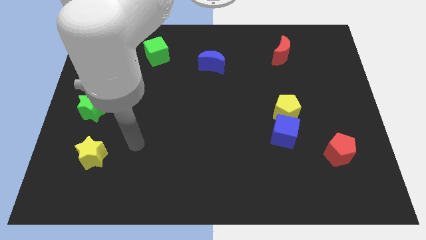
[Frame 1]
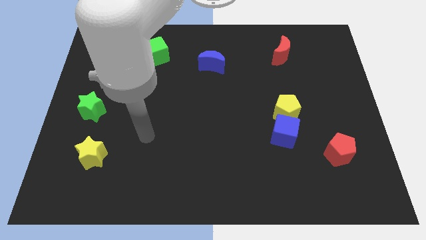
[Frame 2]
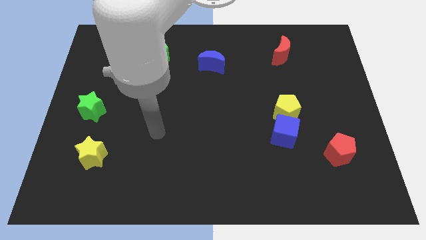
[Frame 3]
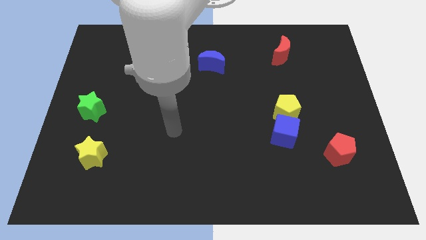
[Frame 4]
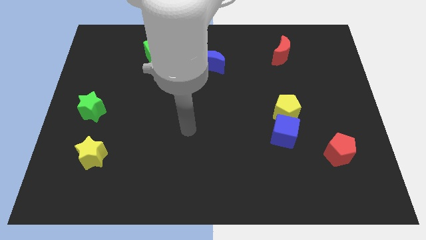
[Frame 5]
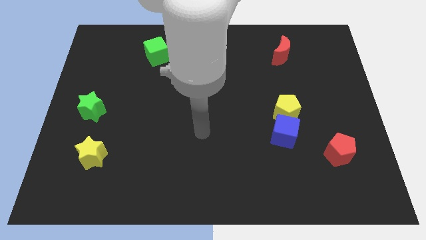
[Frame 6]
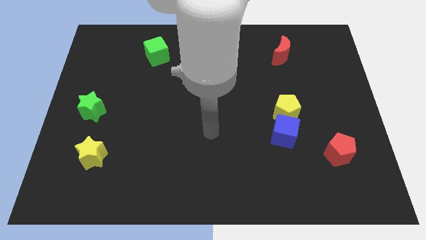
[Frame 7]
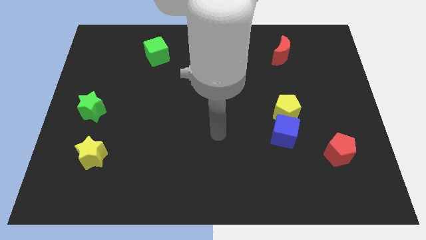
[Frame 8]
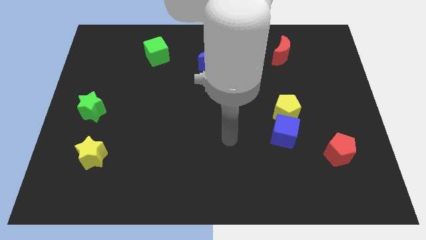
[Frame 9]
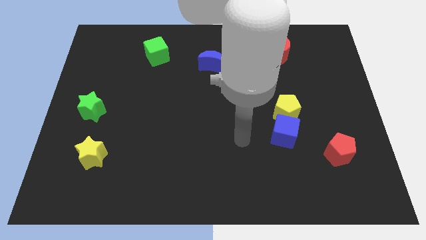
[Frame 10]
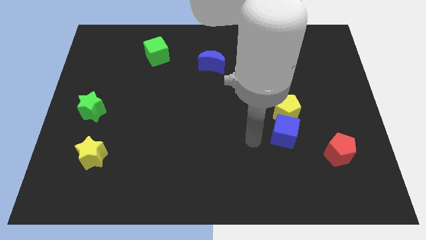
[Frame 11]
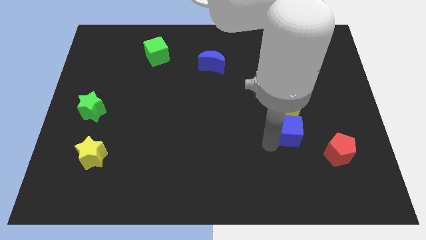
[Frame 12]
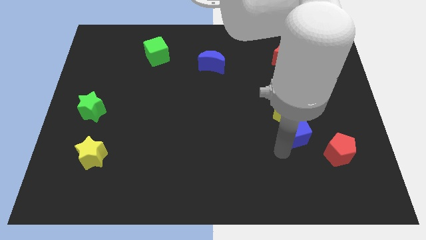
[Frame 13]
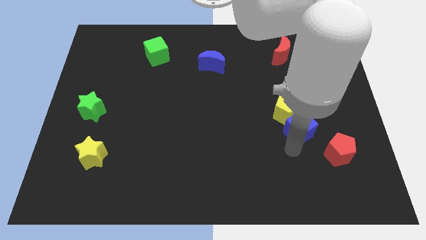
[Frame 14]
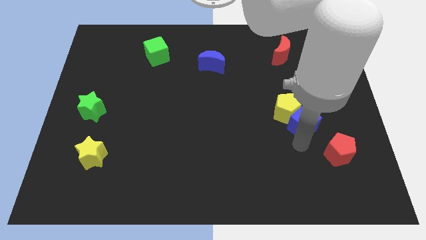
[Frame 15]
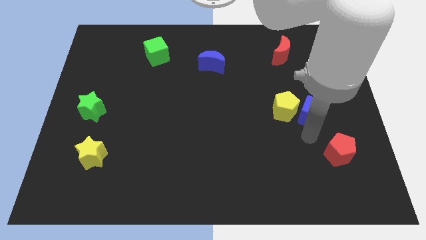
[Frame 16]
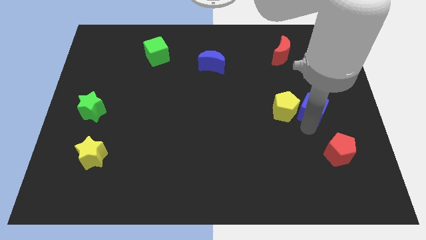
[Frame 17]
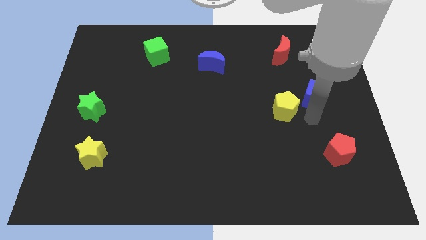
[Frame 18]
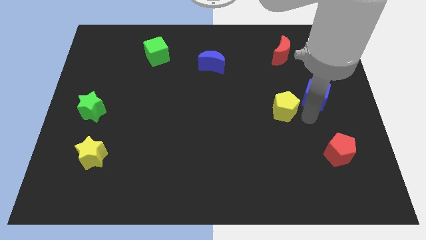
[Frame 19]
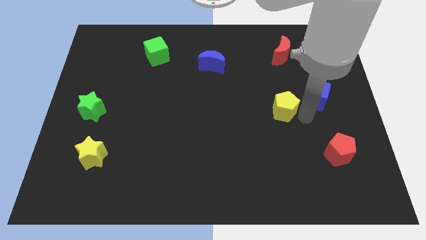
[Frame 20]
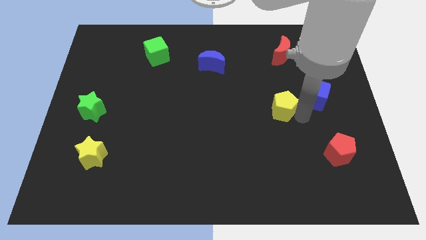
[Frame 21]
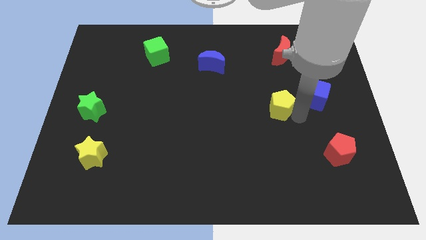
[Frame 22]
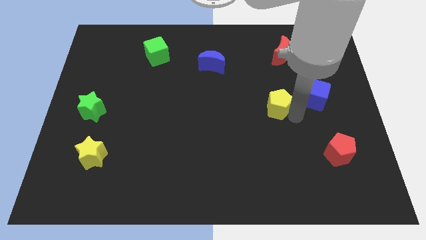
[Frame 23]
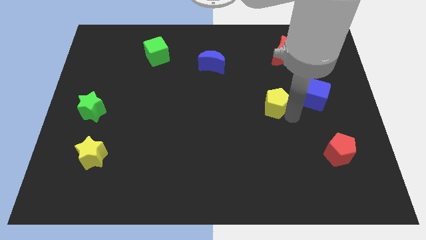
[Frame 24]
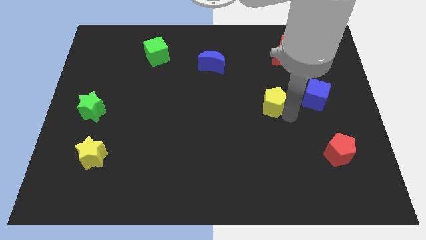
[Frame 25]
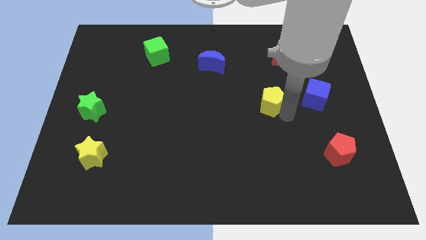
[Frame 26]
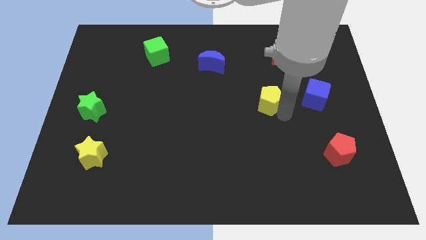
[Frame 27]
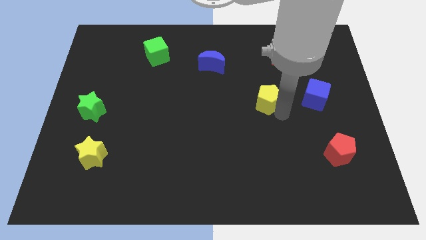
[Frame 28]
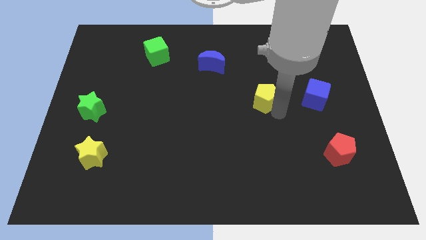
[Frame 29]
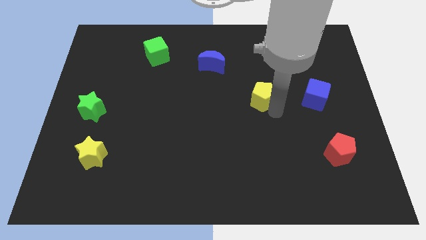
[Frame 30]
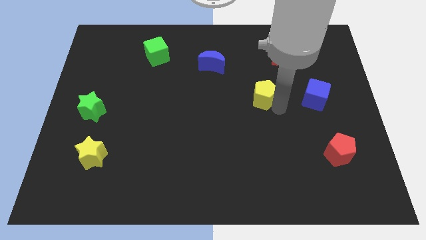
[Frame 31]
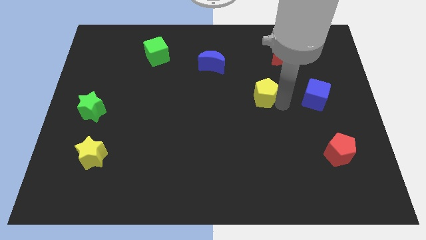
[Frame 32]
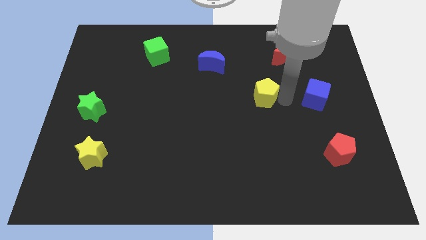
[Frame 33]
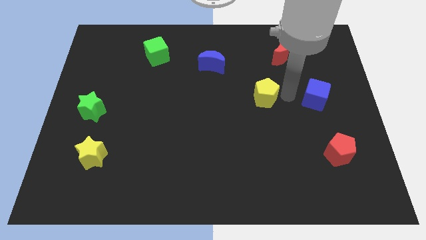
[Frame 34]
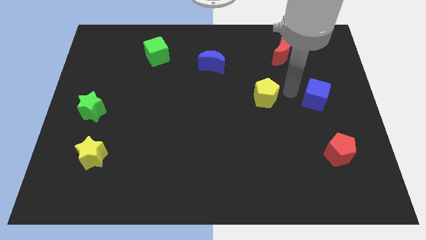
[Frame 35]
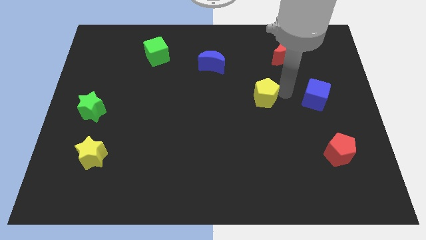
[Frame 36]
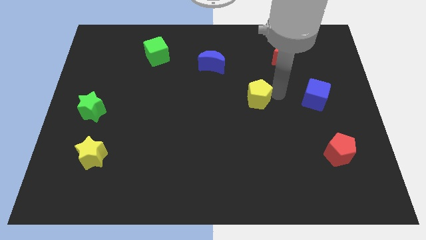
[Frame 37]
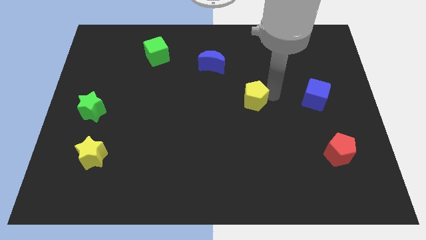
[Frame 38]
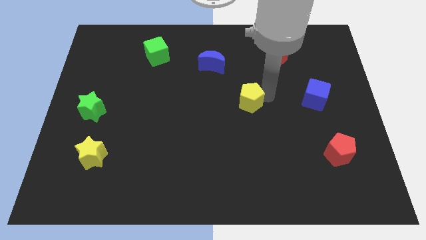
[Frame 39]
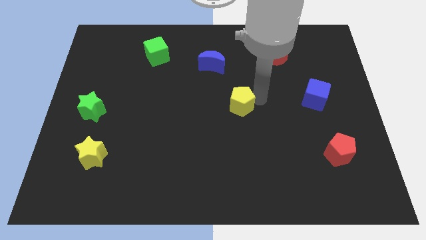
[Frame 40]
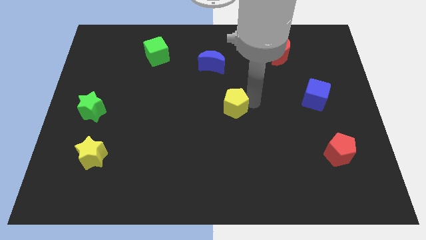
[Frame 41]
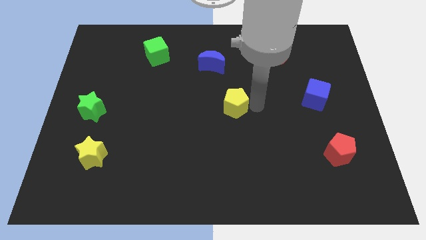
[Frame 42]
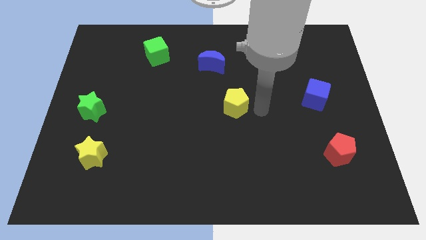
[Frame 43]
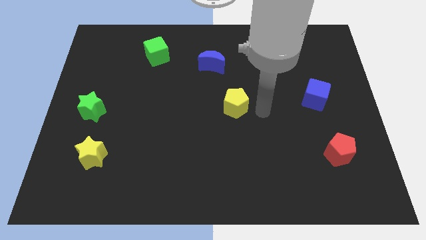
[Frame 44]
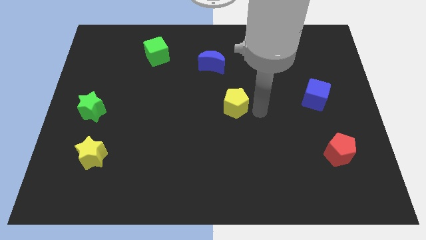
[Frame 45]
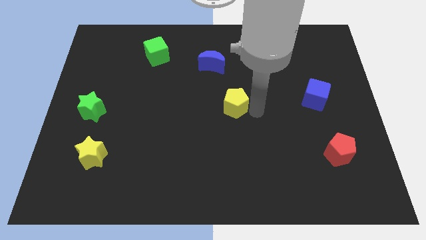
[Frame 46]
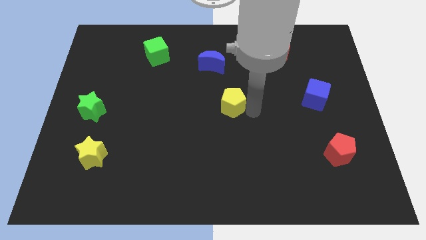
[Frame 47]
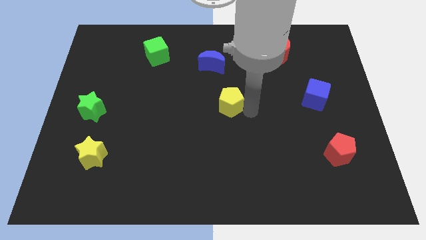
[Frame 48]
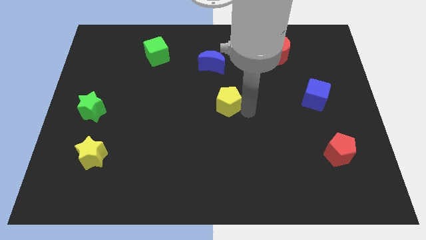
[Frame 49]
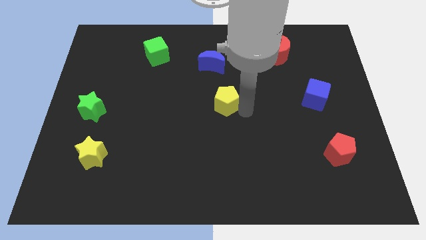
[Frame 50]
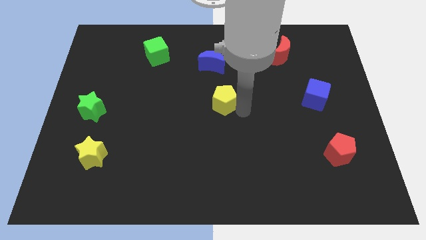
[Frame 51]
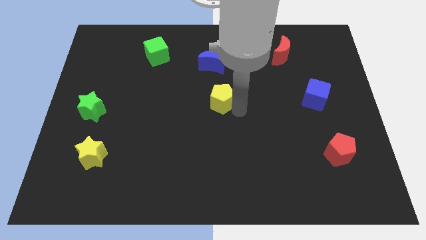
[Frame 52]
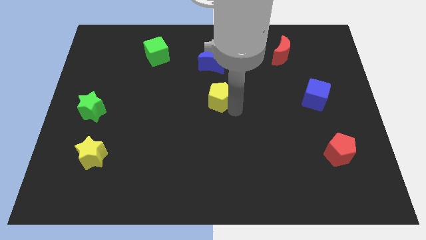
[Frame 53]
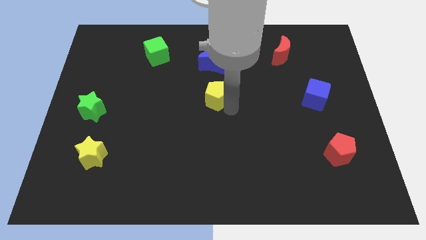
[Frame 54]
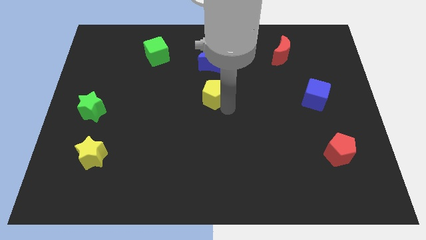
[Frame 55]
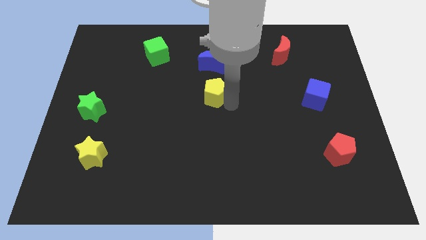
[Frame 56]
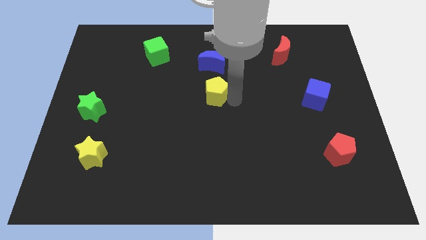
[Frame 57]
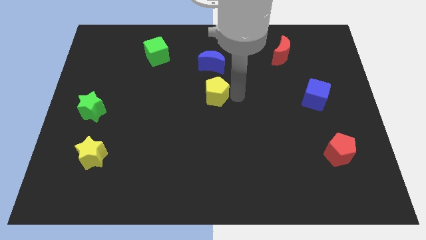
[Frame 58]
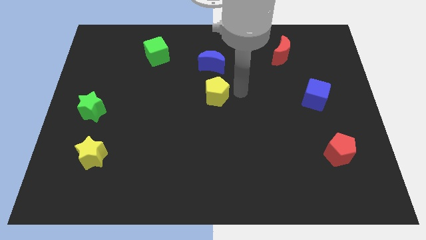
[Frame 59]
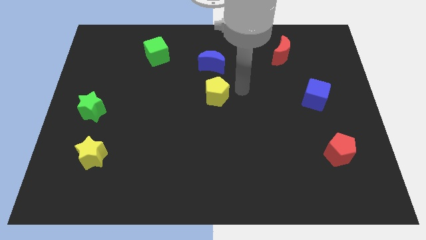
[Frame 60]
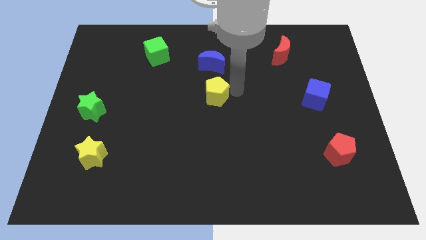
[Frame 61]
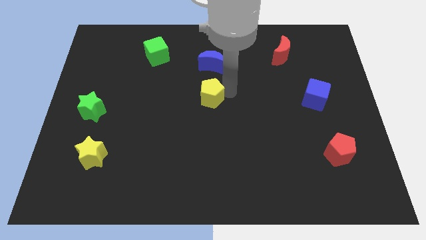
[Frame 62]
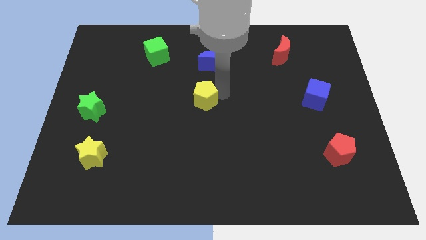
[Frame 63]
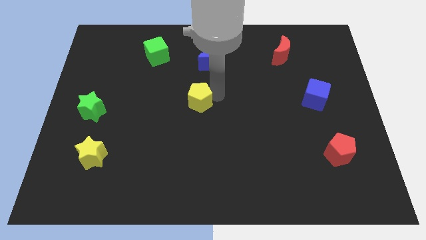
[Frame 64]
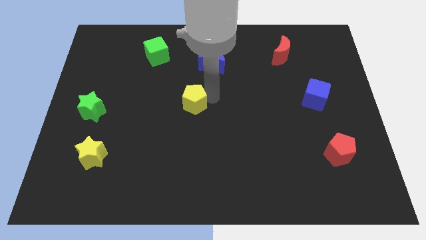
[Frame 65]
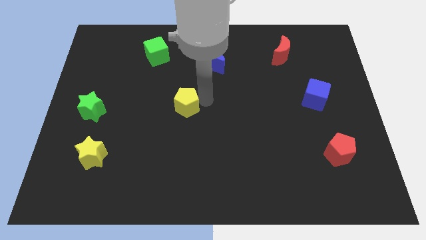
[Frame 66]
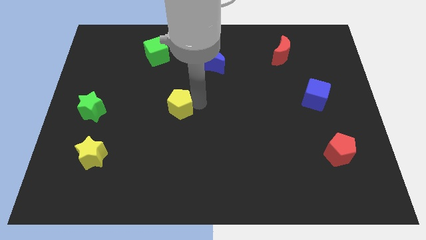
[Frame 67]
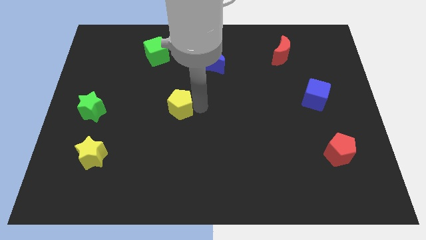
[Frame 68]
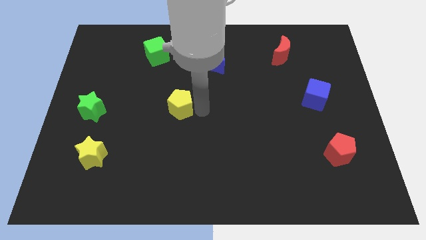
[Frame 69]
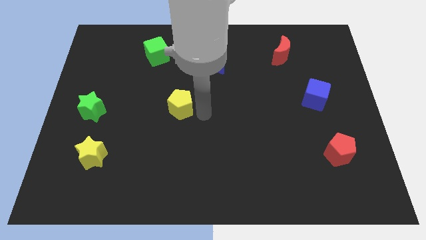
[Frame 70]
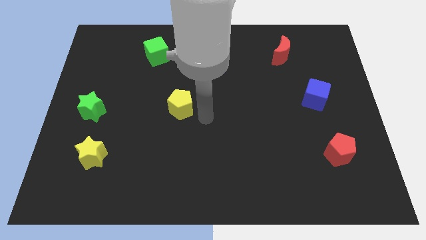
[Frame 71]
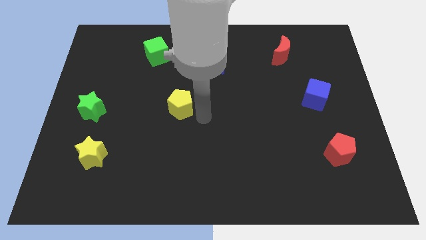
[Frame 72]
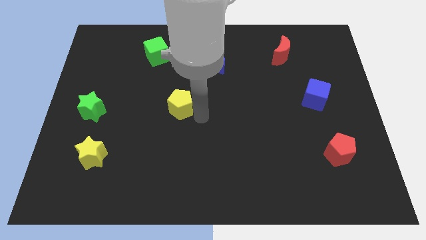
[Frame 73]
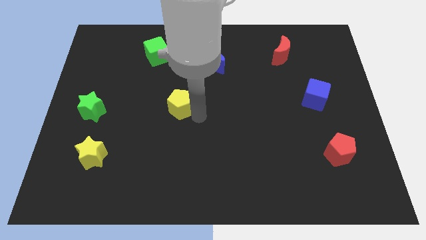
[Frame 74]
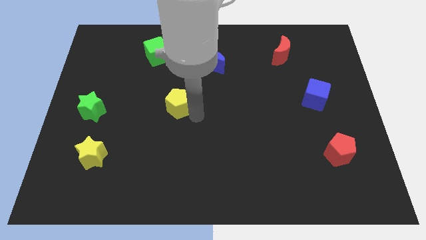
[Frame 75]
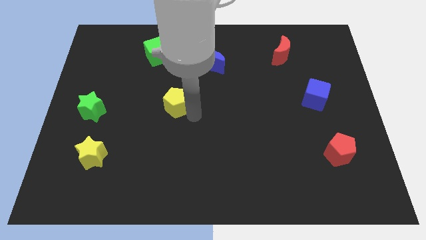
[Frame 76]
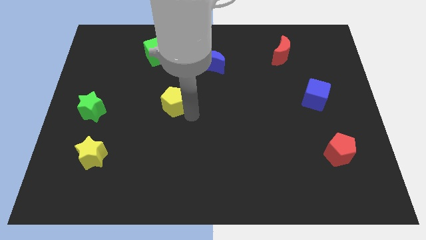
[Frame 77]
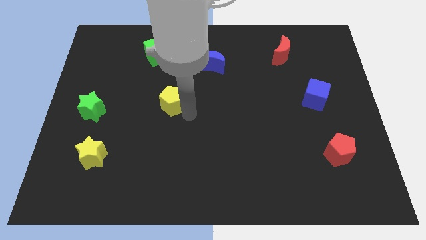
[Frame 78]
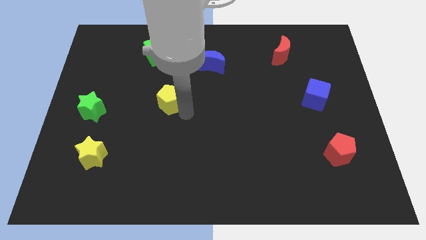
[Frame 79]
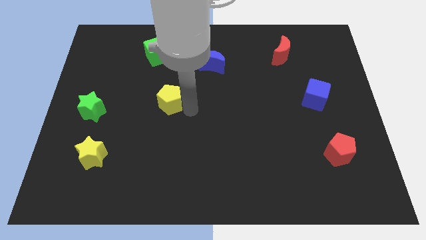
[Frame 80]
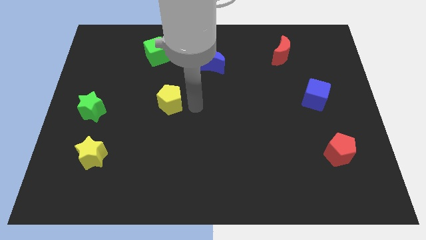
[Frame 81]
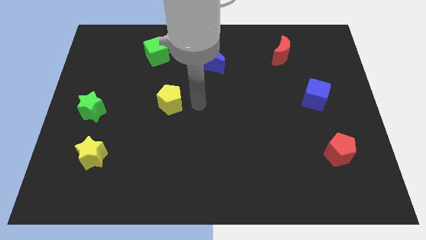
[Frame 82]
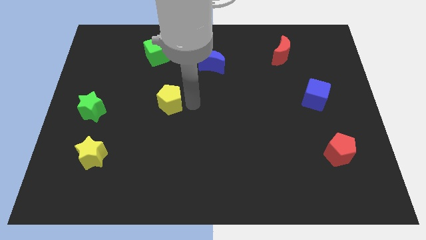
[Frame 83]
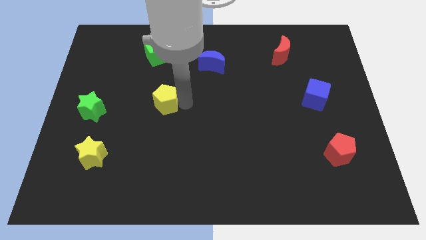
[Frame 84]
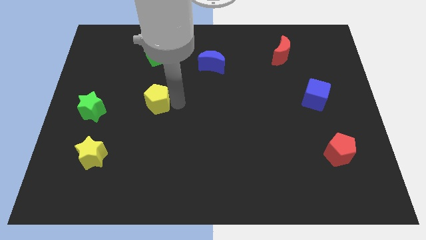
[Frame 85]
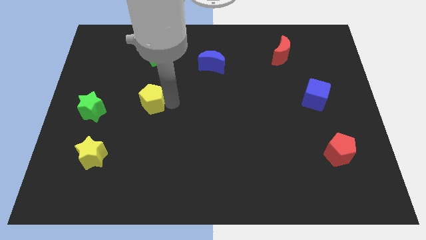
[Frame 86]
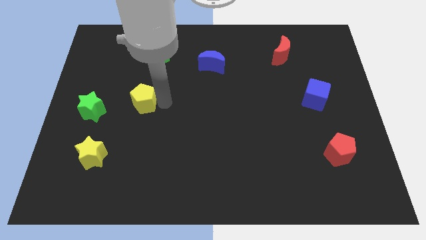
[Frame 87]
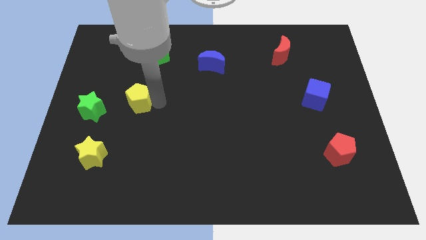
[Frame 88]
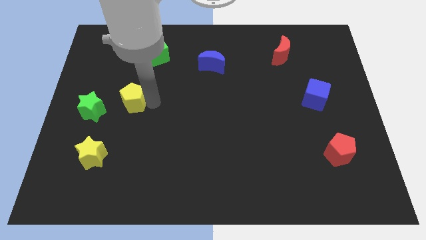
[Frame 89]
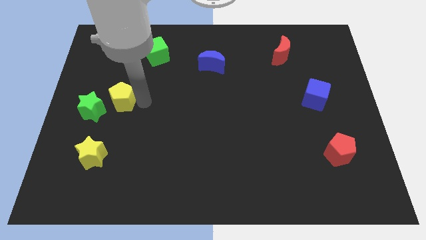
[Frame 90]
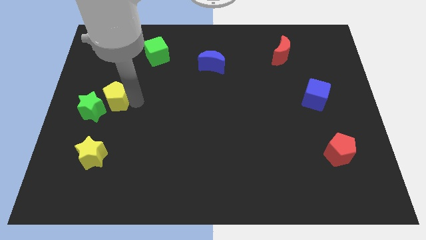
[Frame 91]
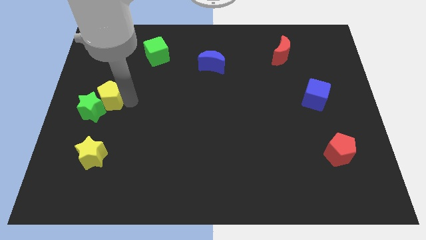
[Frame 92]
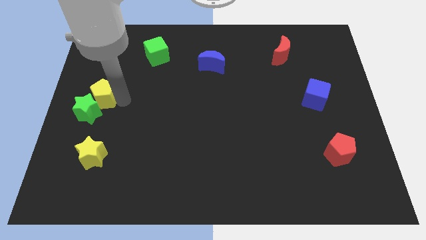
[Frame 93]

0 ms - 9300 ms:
slide the yellow pentagon to the center left
